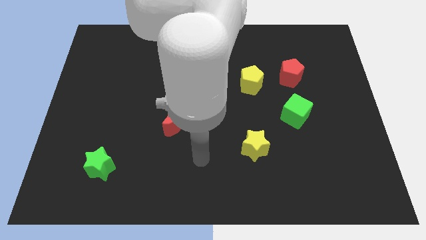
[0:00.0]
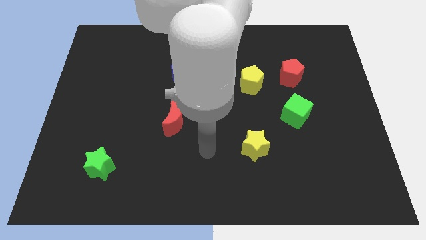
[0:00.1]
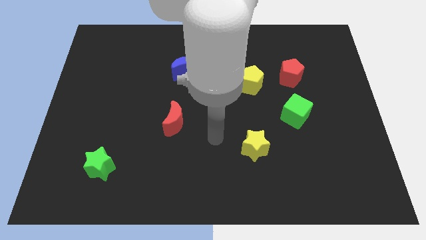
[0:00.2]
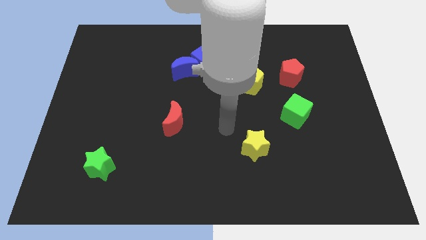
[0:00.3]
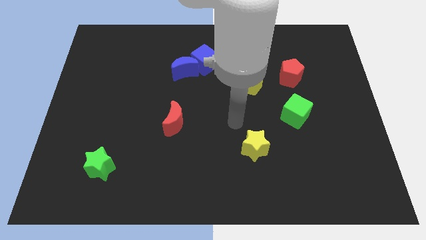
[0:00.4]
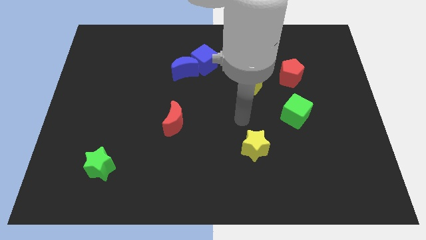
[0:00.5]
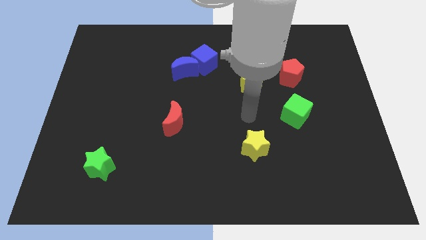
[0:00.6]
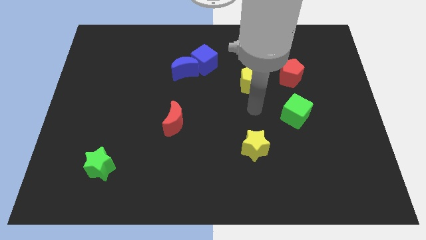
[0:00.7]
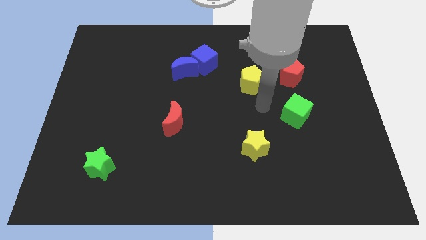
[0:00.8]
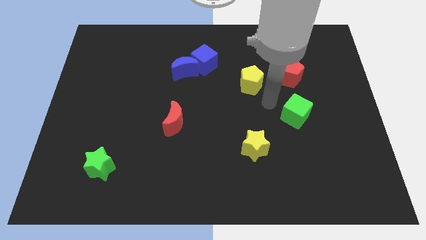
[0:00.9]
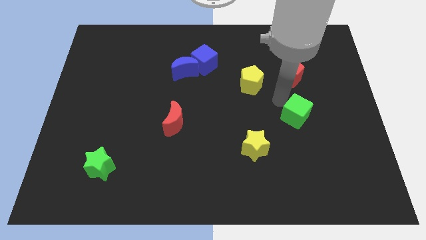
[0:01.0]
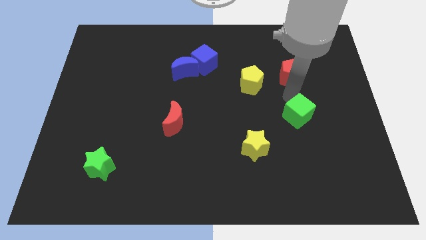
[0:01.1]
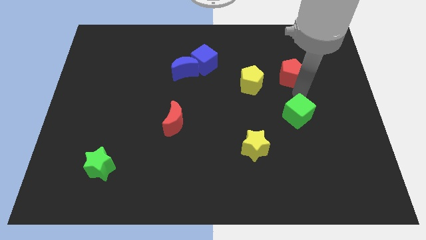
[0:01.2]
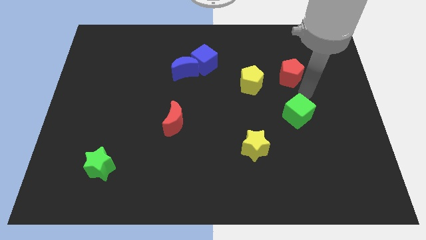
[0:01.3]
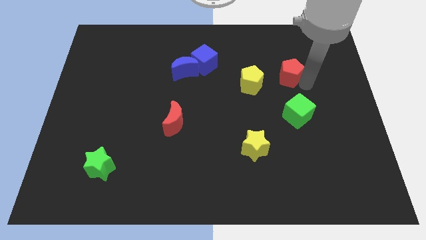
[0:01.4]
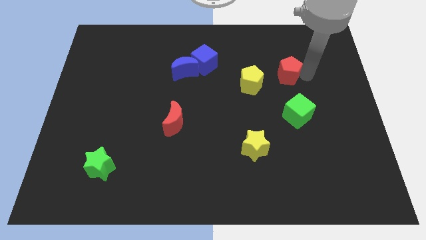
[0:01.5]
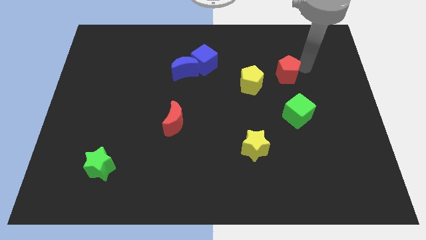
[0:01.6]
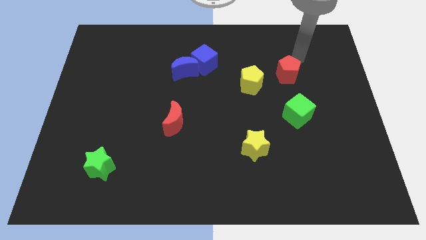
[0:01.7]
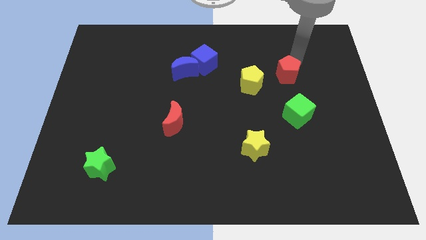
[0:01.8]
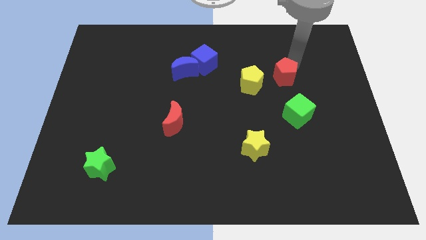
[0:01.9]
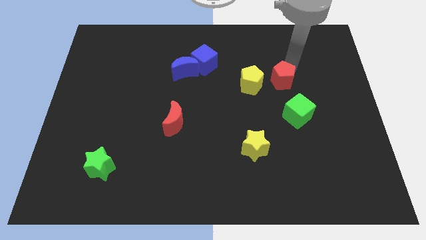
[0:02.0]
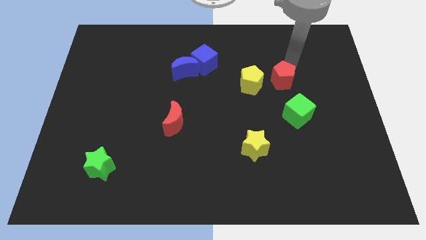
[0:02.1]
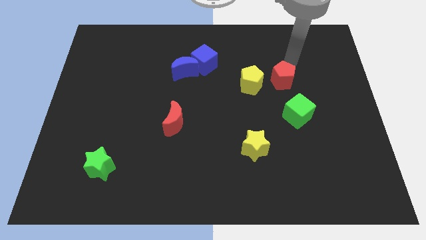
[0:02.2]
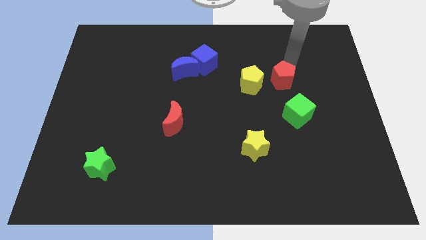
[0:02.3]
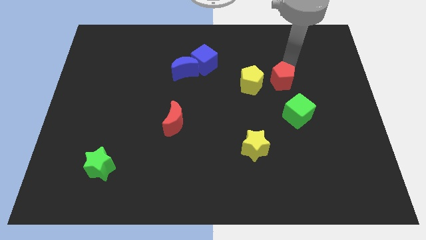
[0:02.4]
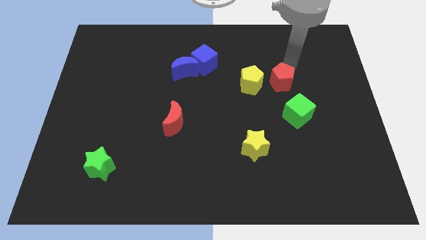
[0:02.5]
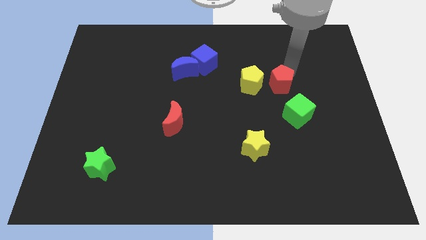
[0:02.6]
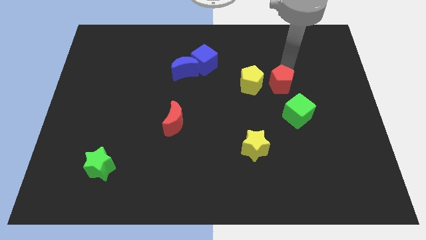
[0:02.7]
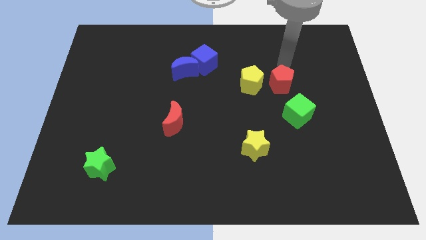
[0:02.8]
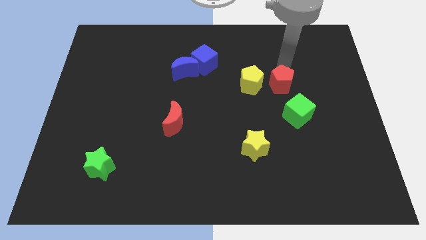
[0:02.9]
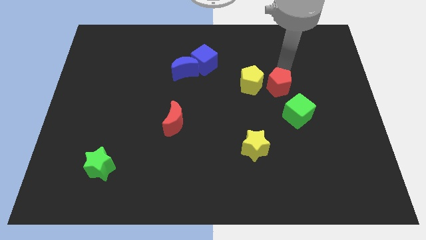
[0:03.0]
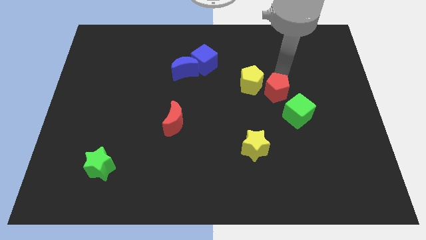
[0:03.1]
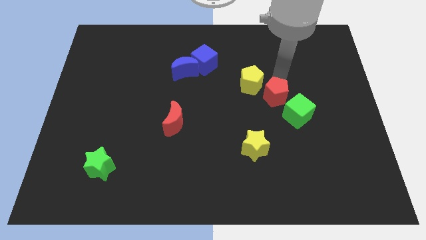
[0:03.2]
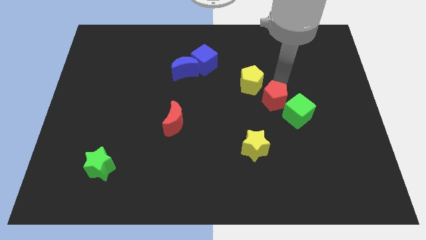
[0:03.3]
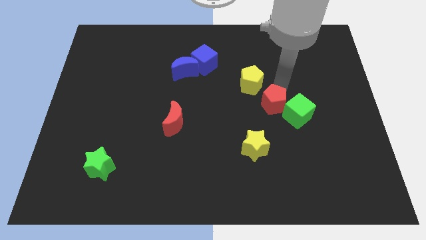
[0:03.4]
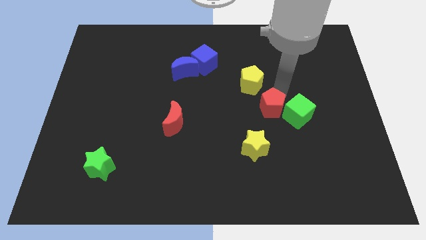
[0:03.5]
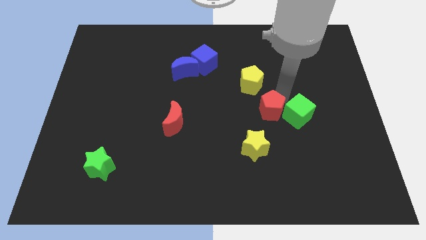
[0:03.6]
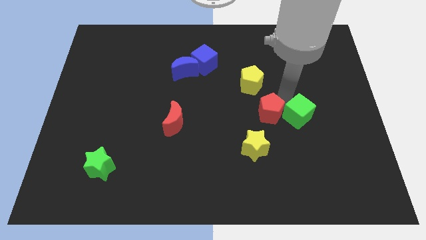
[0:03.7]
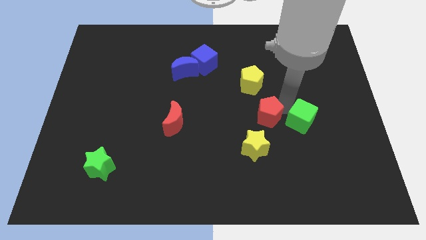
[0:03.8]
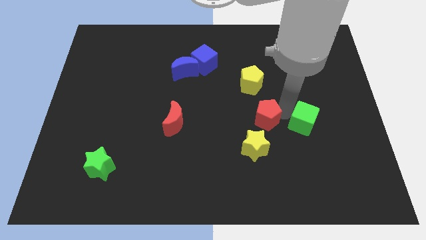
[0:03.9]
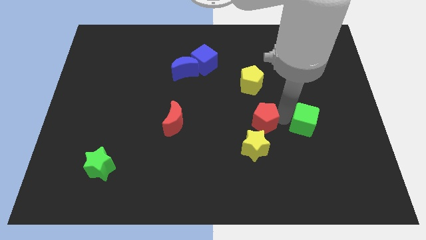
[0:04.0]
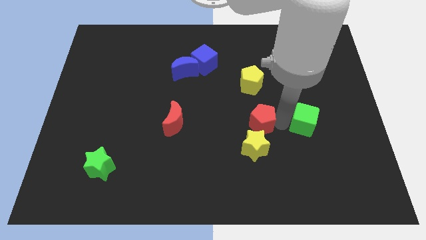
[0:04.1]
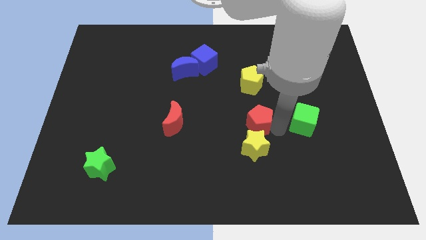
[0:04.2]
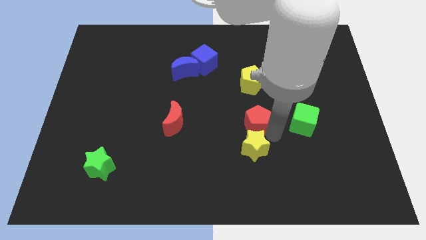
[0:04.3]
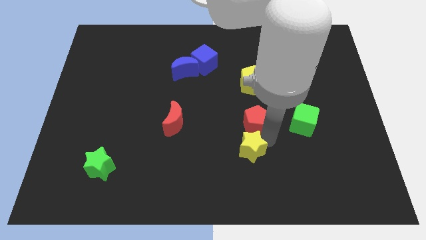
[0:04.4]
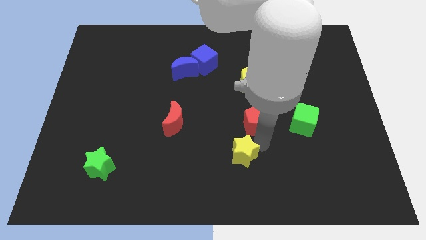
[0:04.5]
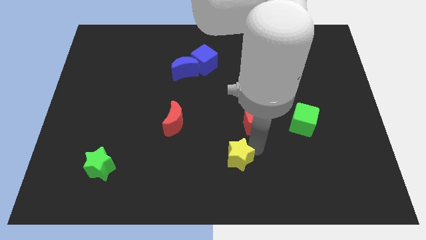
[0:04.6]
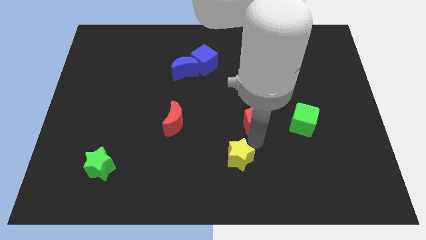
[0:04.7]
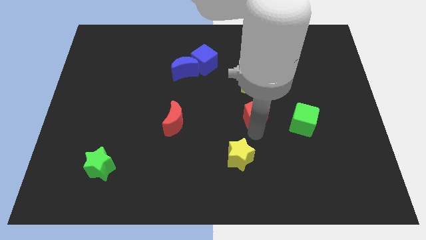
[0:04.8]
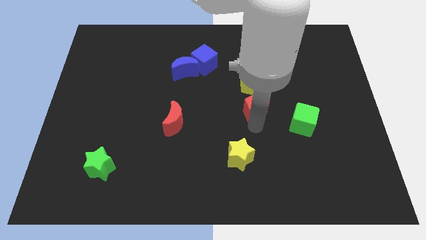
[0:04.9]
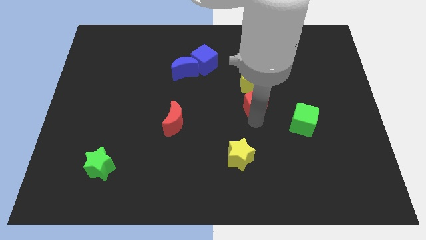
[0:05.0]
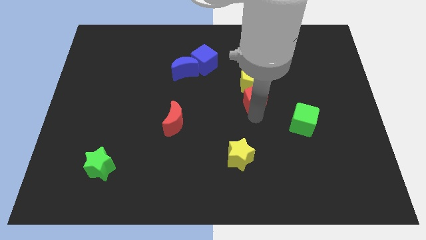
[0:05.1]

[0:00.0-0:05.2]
slide the red pentagon to the bottom left side of the yellow pentagon

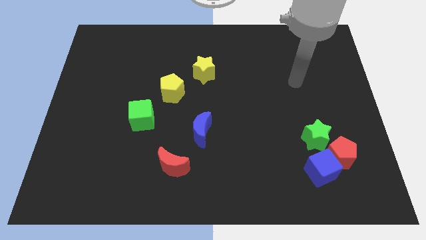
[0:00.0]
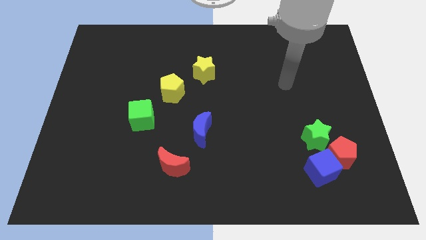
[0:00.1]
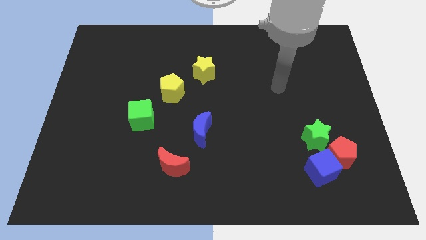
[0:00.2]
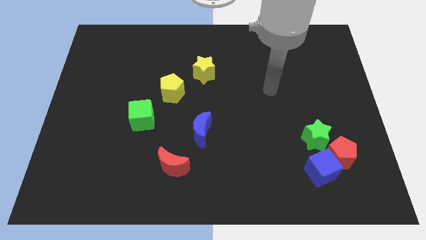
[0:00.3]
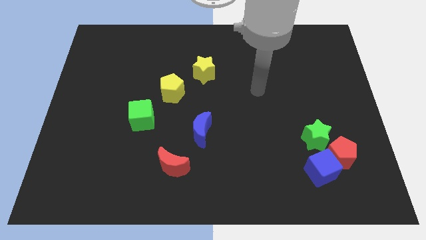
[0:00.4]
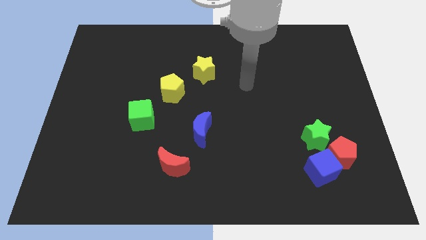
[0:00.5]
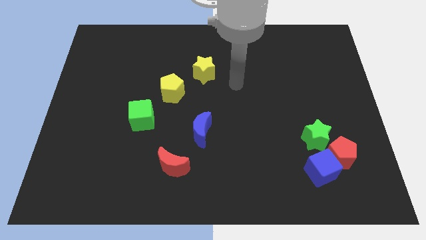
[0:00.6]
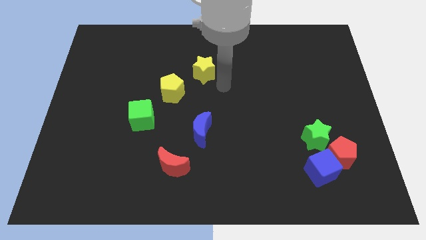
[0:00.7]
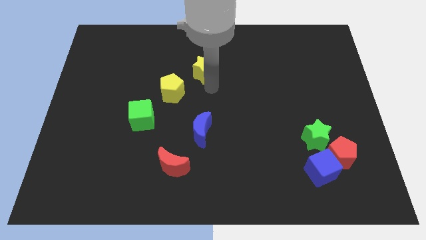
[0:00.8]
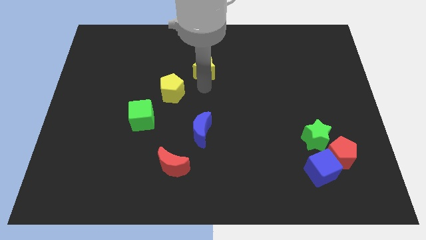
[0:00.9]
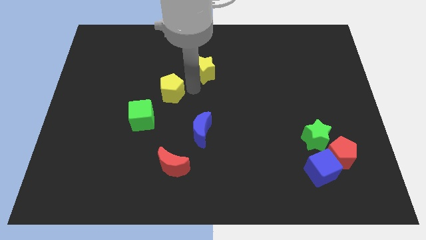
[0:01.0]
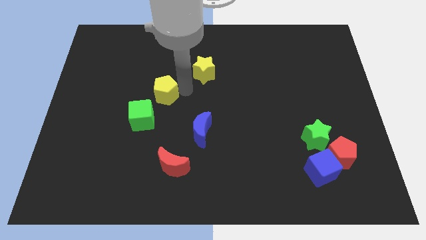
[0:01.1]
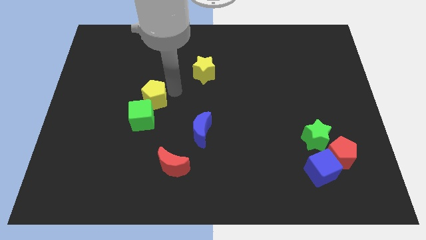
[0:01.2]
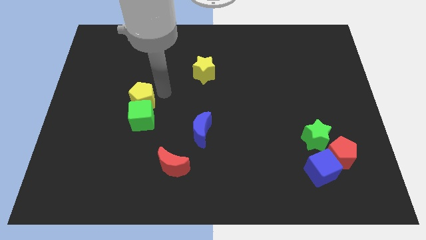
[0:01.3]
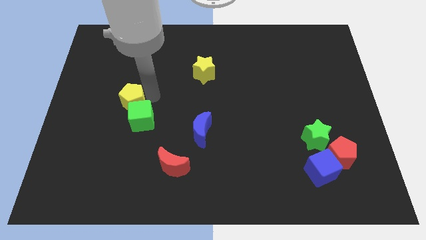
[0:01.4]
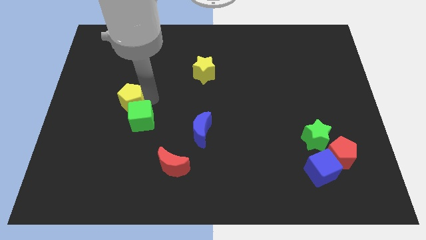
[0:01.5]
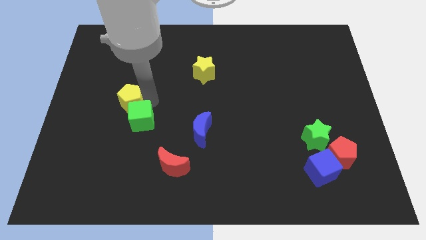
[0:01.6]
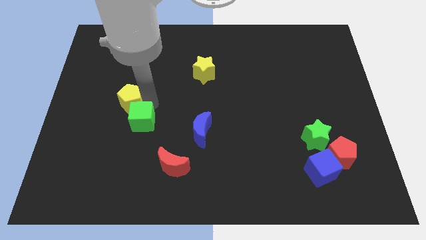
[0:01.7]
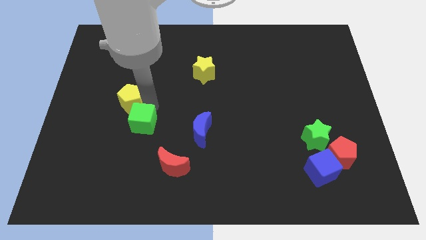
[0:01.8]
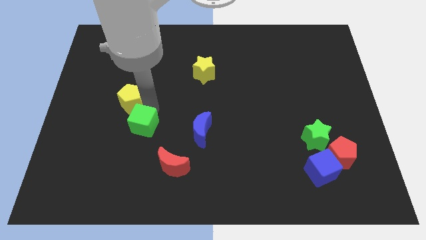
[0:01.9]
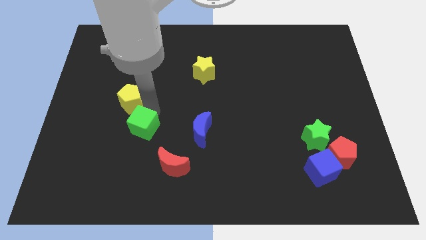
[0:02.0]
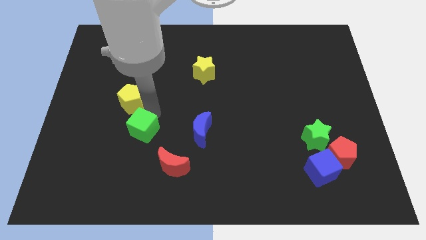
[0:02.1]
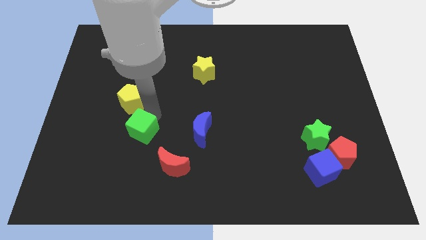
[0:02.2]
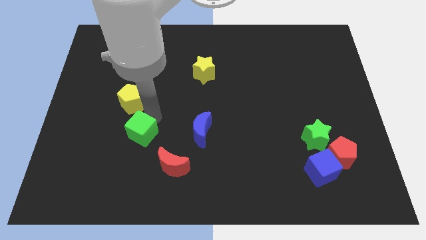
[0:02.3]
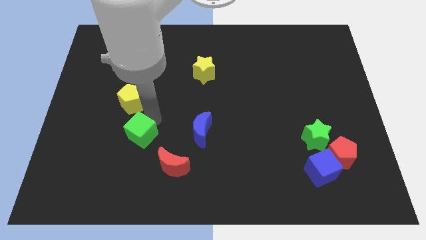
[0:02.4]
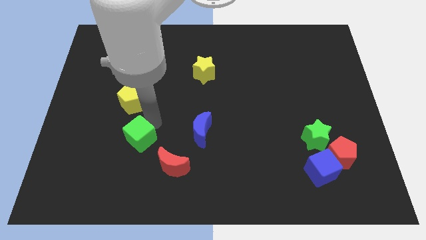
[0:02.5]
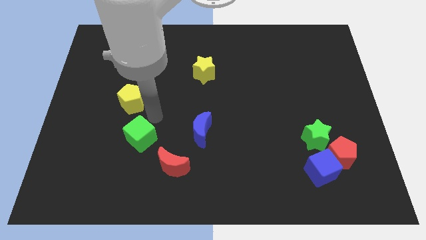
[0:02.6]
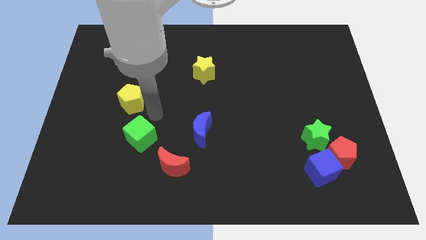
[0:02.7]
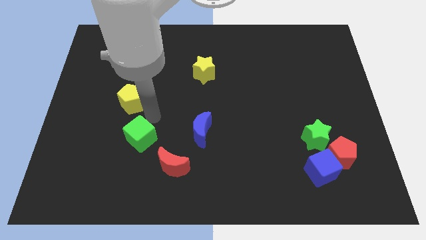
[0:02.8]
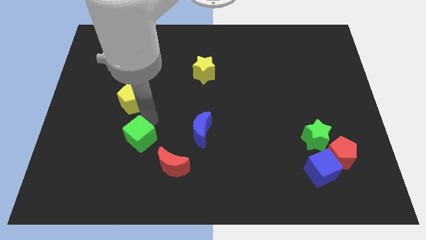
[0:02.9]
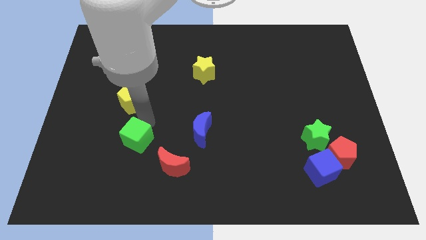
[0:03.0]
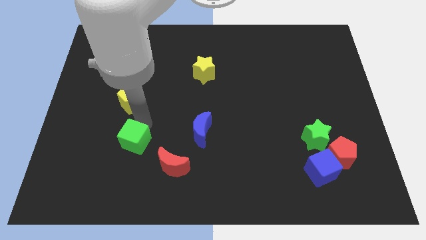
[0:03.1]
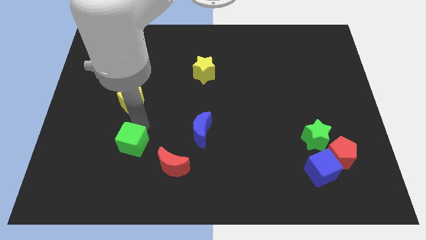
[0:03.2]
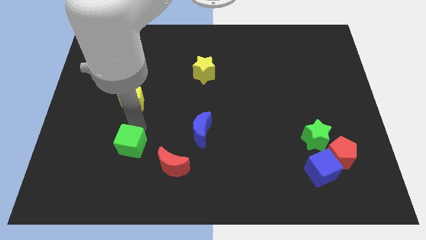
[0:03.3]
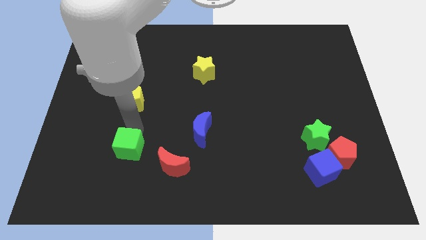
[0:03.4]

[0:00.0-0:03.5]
slide the green cube to the left of the red moon
